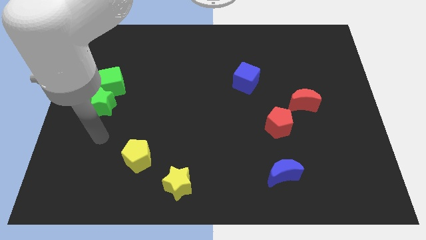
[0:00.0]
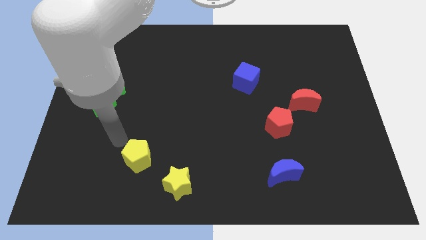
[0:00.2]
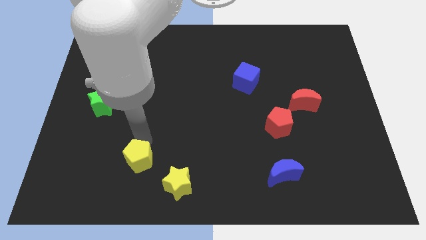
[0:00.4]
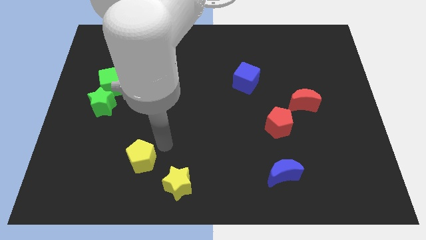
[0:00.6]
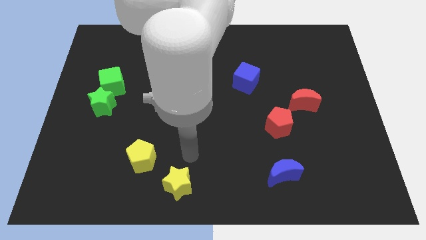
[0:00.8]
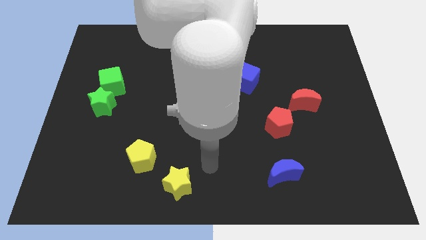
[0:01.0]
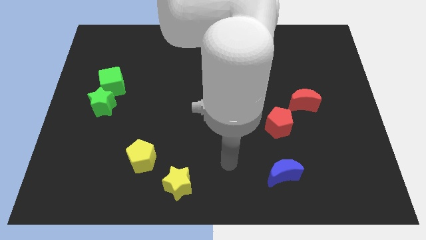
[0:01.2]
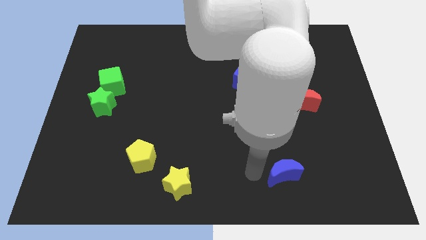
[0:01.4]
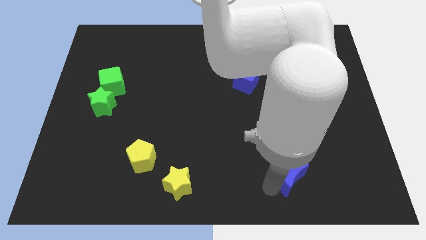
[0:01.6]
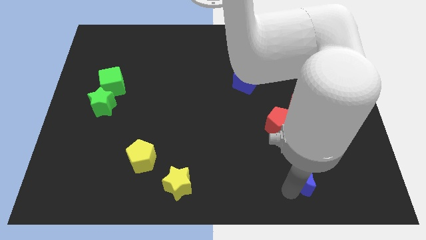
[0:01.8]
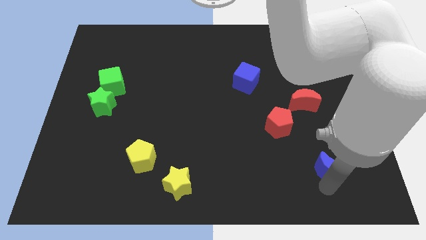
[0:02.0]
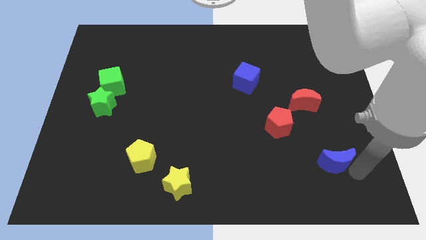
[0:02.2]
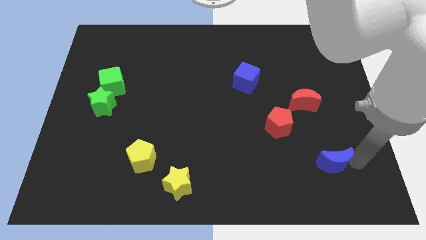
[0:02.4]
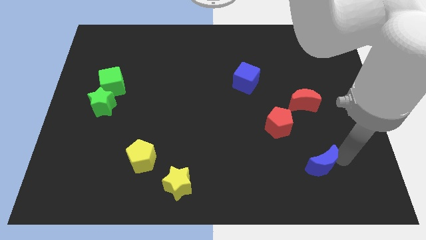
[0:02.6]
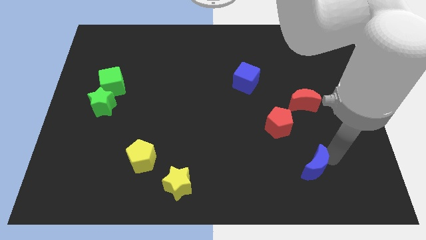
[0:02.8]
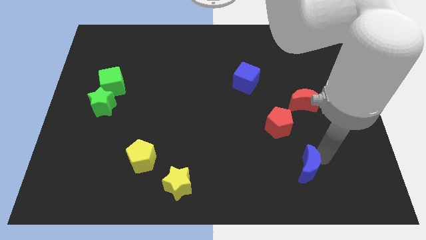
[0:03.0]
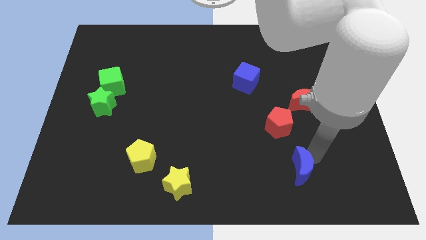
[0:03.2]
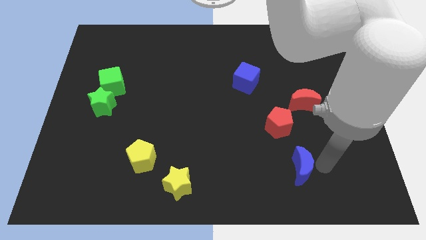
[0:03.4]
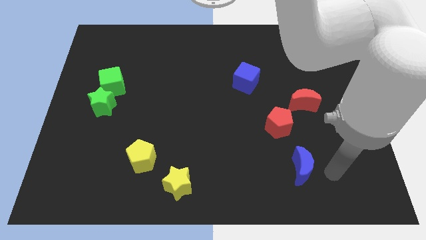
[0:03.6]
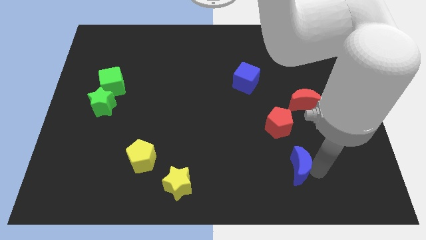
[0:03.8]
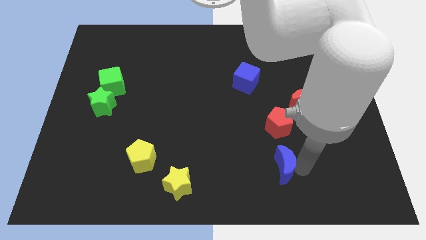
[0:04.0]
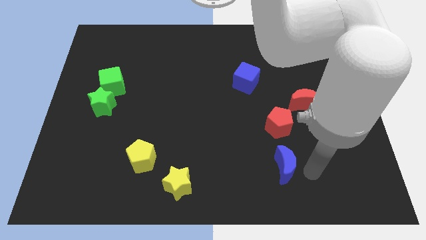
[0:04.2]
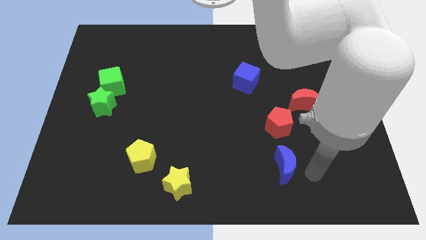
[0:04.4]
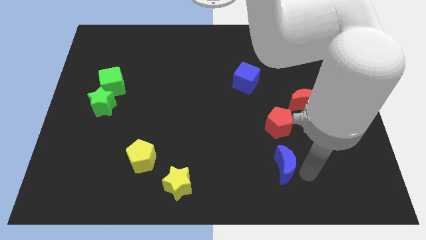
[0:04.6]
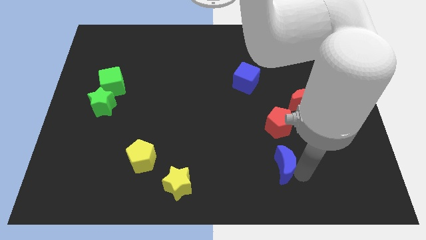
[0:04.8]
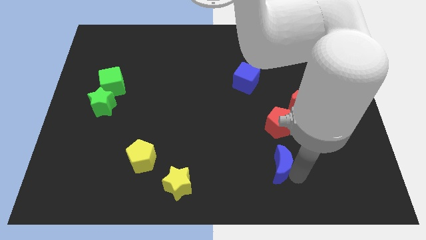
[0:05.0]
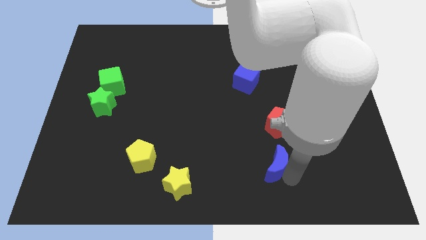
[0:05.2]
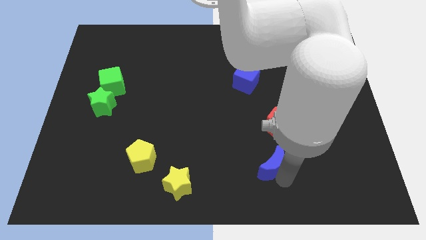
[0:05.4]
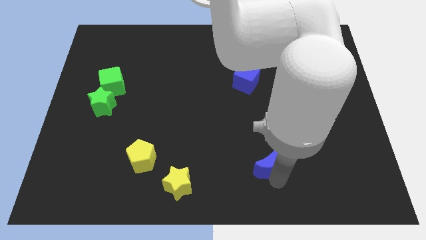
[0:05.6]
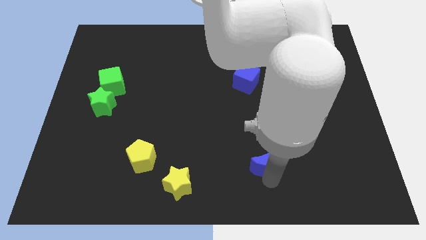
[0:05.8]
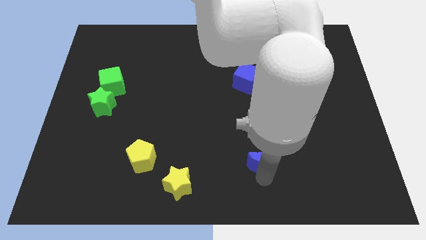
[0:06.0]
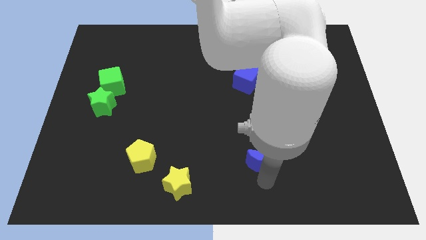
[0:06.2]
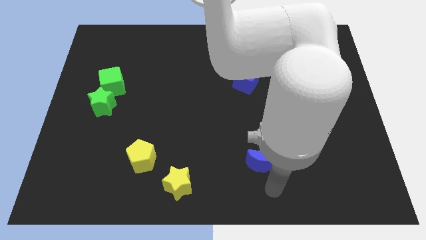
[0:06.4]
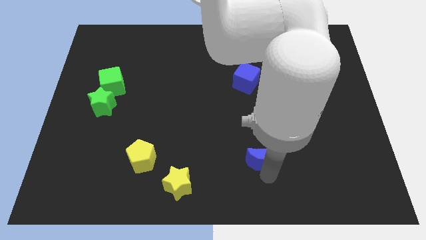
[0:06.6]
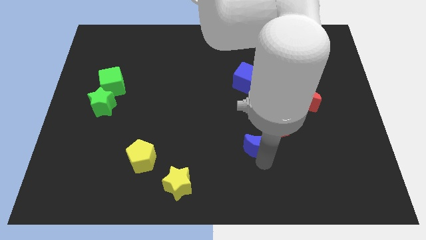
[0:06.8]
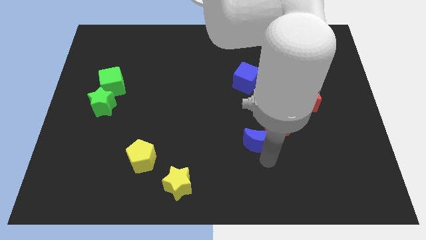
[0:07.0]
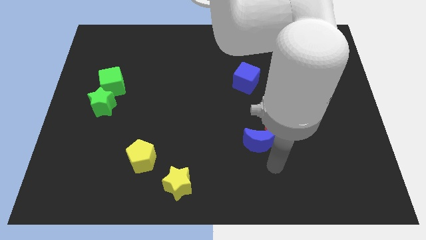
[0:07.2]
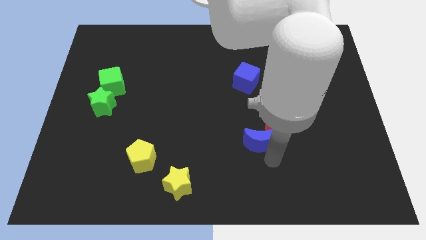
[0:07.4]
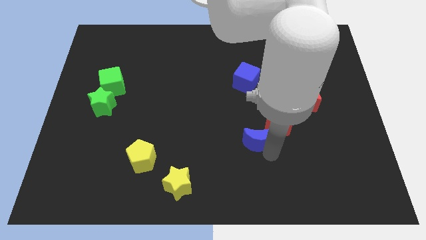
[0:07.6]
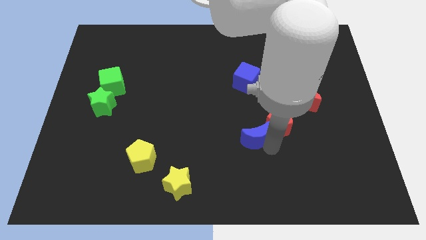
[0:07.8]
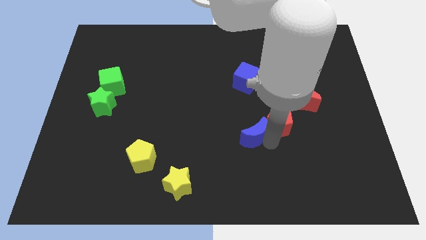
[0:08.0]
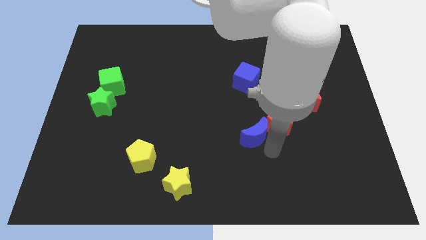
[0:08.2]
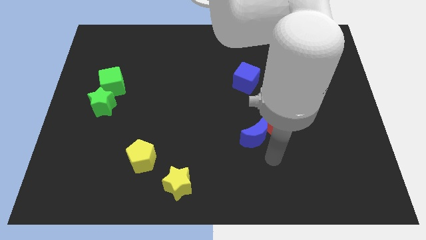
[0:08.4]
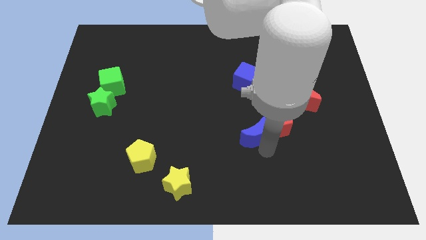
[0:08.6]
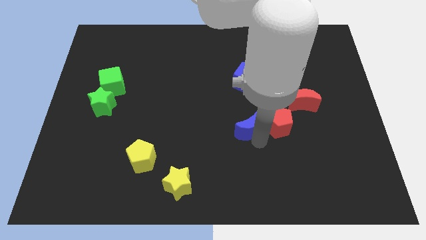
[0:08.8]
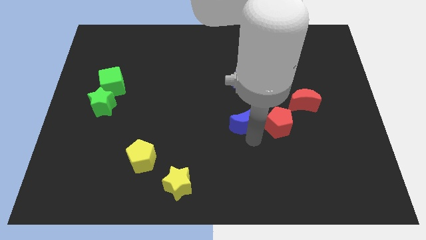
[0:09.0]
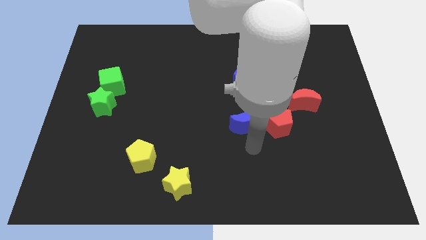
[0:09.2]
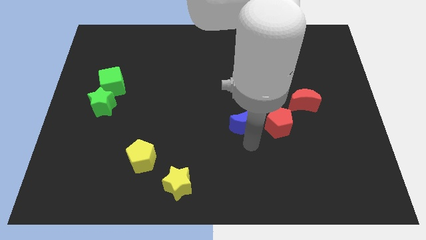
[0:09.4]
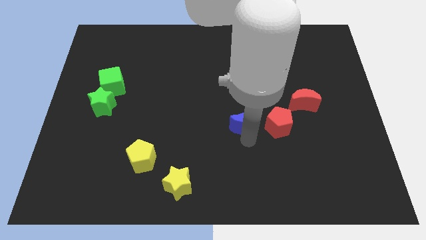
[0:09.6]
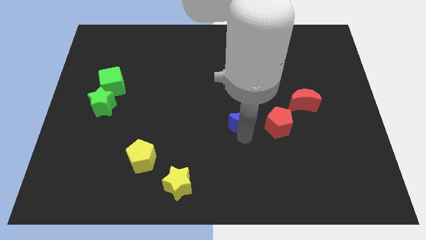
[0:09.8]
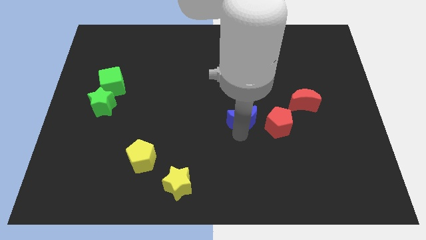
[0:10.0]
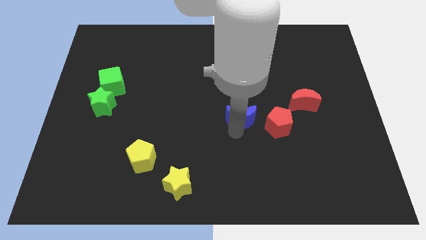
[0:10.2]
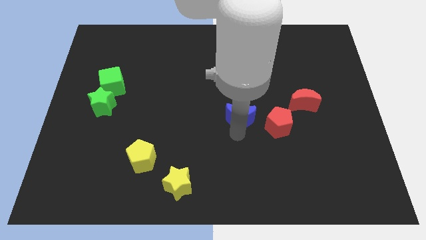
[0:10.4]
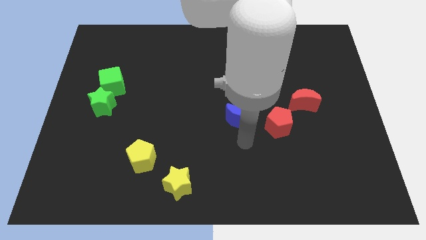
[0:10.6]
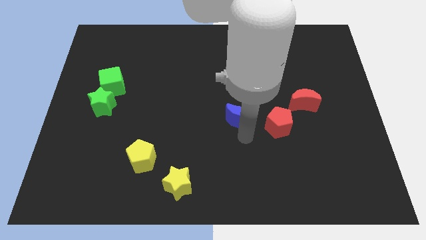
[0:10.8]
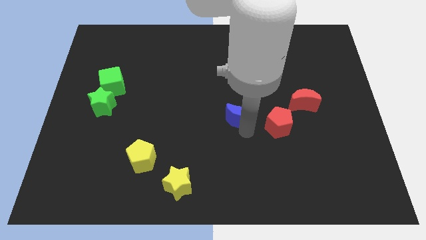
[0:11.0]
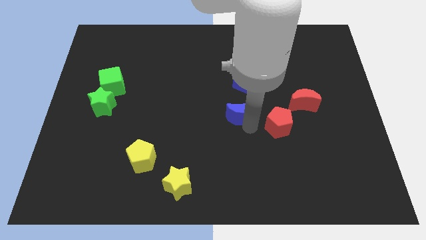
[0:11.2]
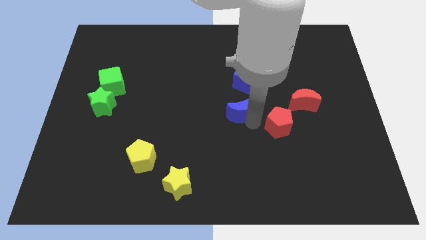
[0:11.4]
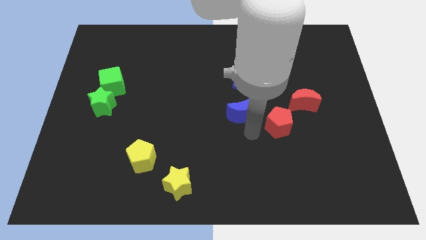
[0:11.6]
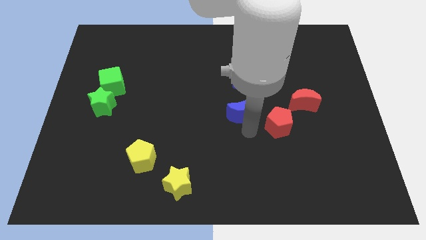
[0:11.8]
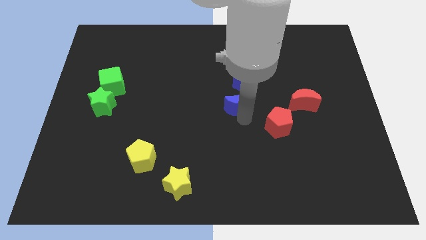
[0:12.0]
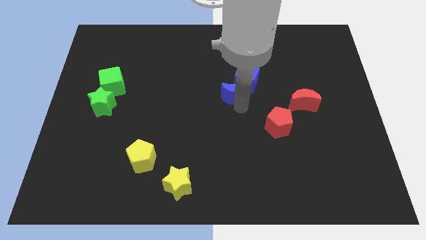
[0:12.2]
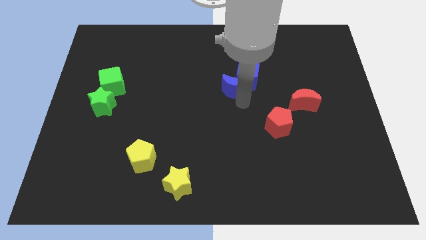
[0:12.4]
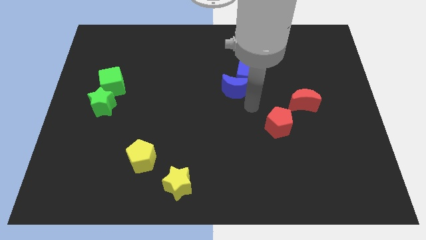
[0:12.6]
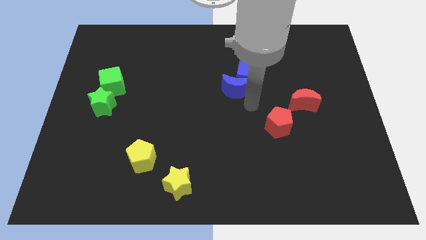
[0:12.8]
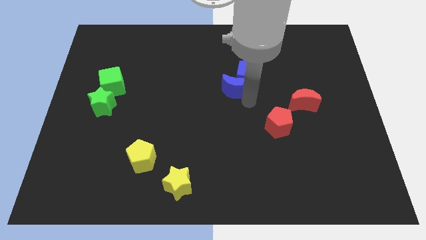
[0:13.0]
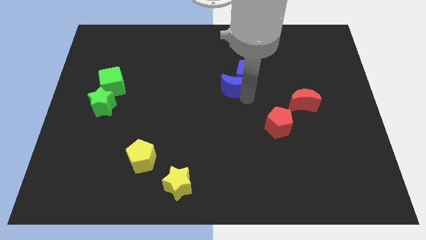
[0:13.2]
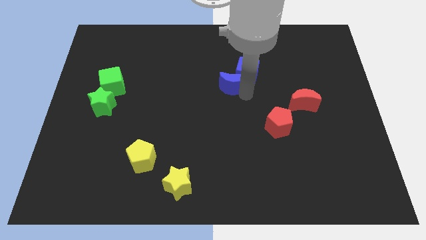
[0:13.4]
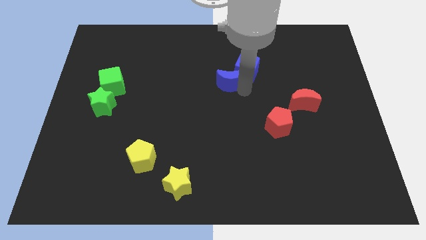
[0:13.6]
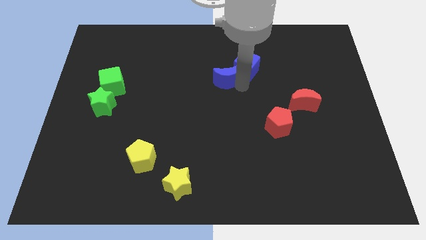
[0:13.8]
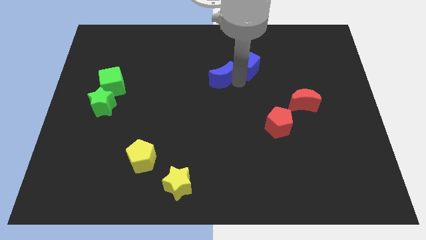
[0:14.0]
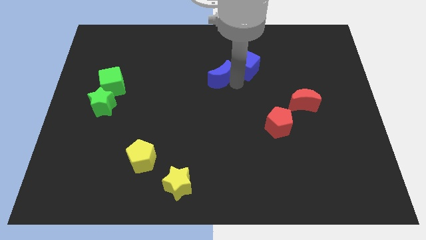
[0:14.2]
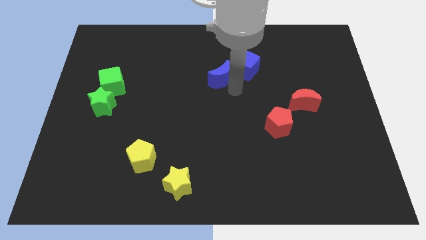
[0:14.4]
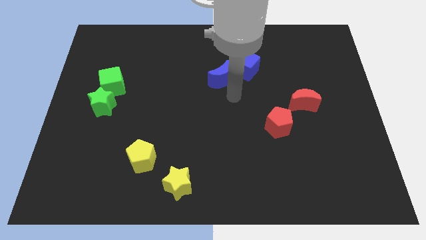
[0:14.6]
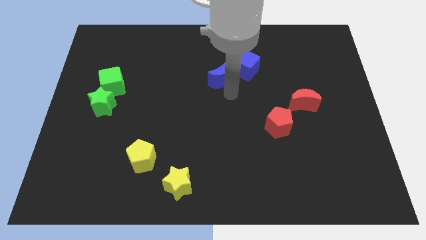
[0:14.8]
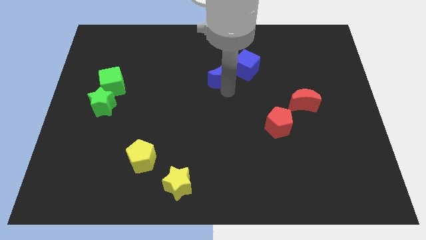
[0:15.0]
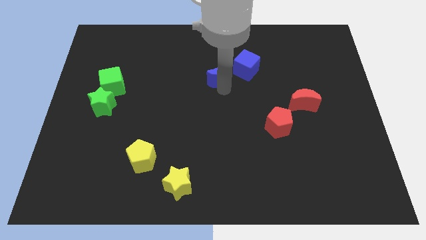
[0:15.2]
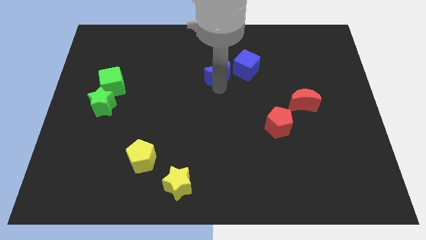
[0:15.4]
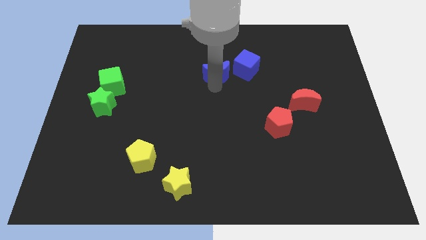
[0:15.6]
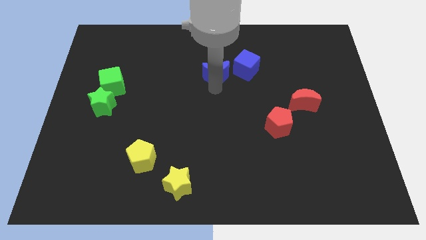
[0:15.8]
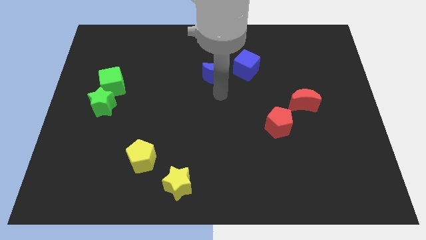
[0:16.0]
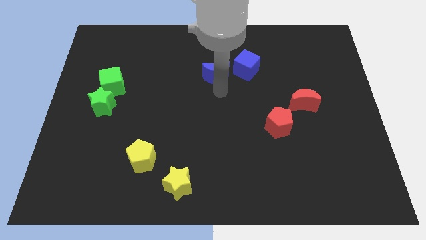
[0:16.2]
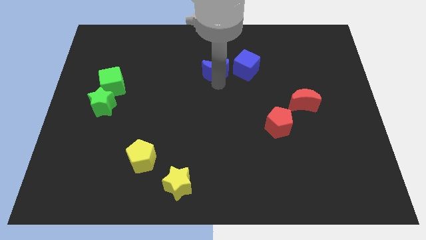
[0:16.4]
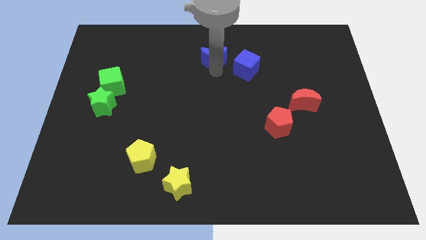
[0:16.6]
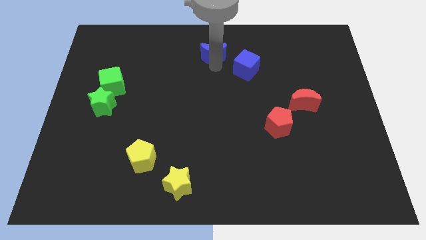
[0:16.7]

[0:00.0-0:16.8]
move the blue moon to the towards your base
